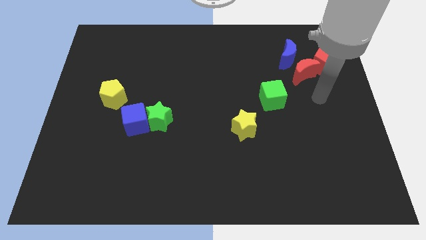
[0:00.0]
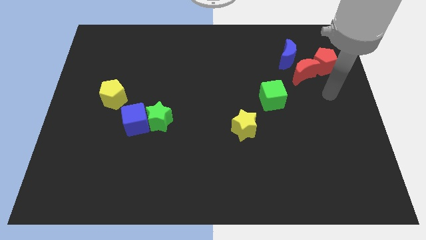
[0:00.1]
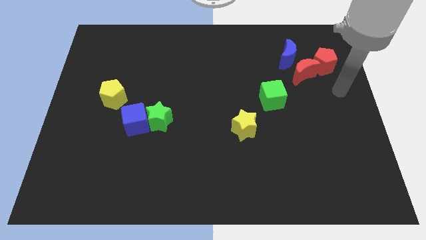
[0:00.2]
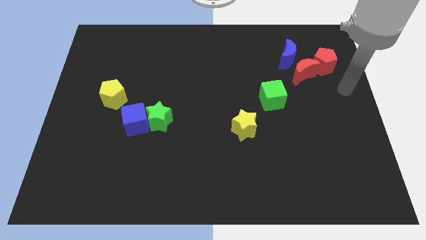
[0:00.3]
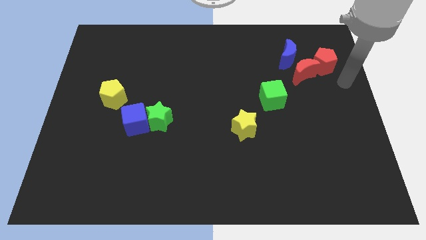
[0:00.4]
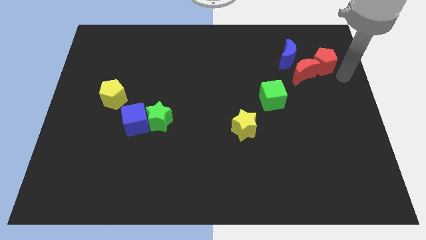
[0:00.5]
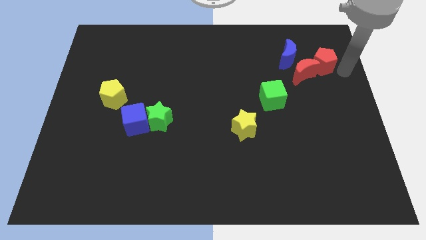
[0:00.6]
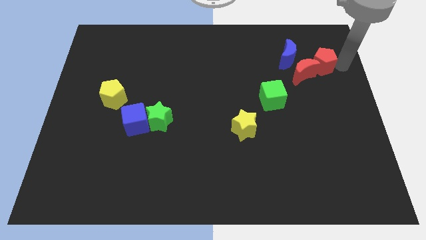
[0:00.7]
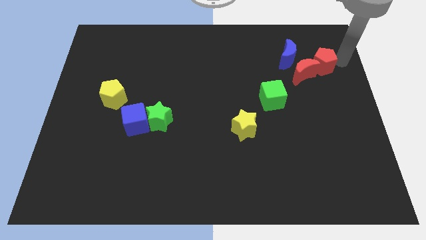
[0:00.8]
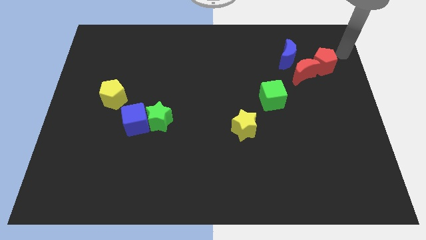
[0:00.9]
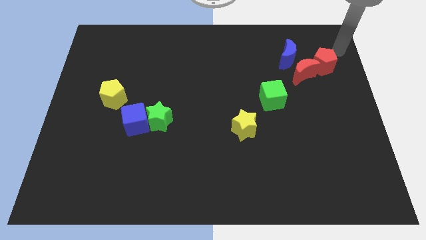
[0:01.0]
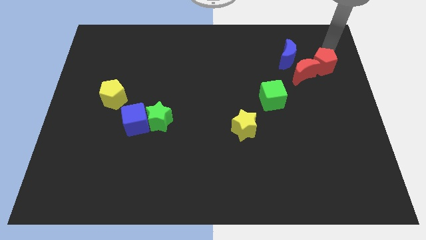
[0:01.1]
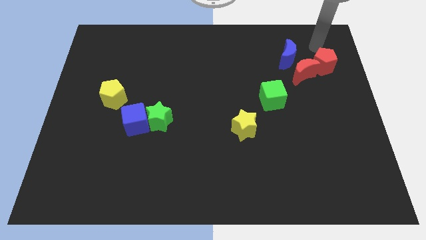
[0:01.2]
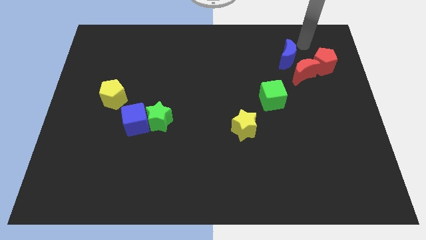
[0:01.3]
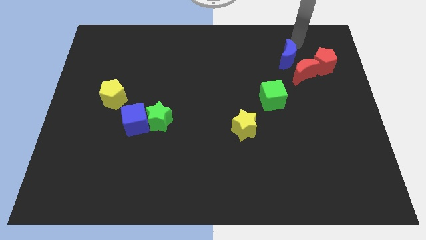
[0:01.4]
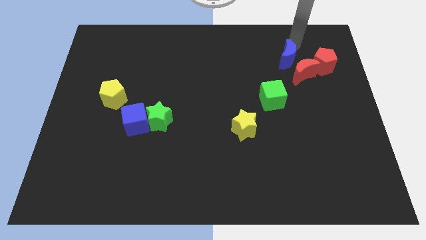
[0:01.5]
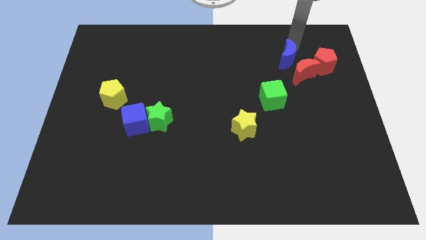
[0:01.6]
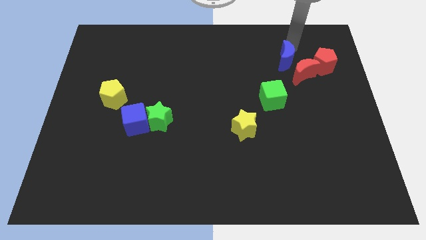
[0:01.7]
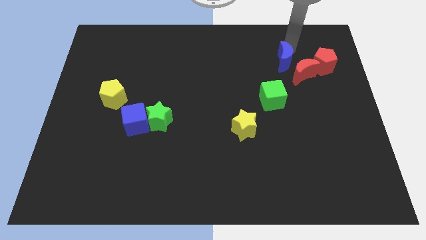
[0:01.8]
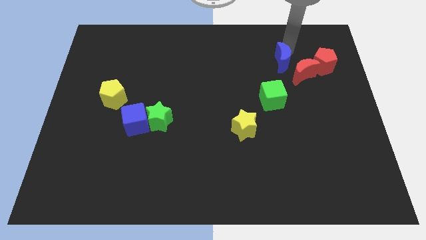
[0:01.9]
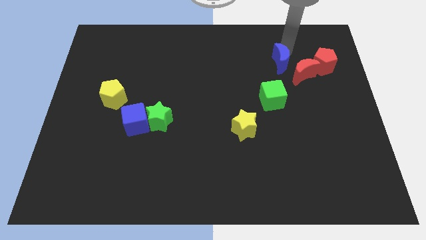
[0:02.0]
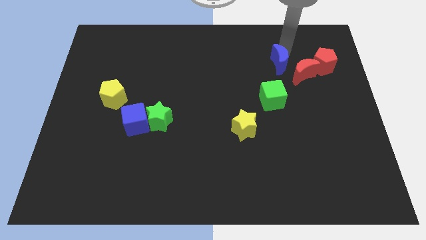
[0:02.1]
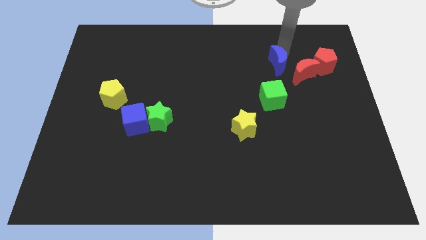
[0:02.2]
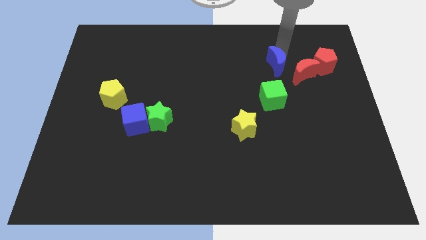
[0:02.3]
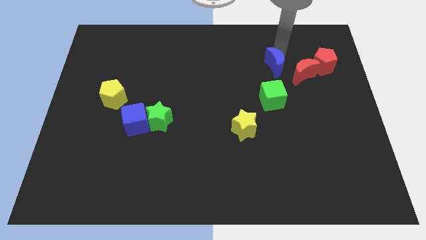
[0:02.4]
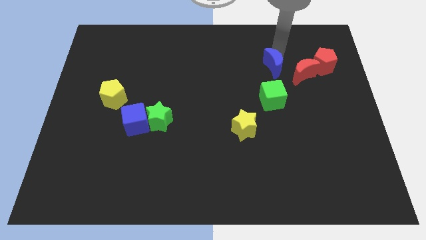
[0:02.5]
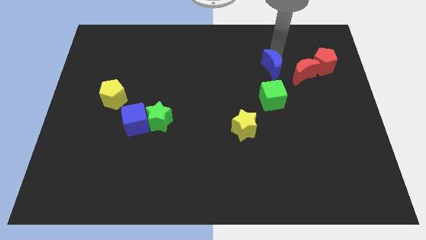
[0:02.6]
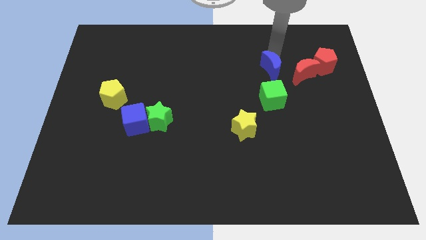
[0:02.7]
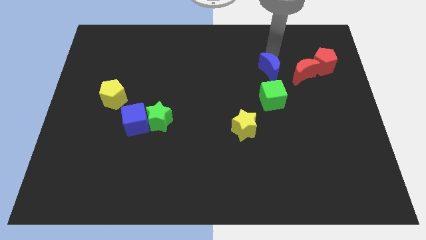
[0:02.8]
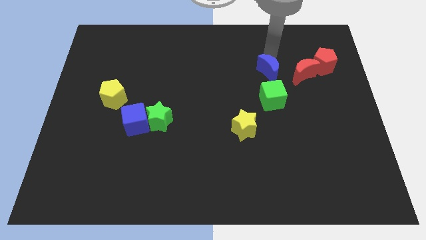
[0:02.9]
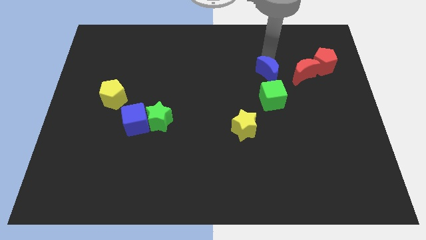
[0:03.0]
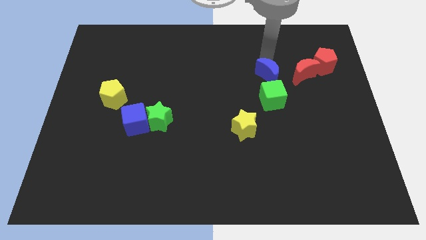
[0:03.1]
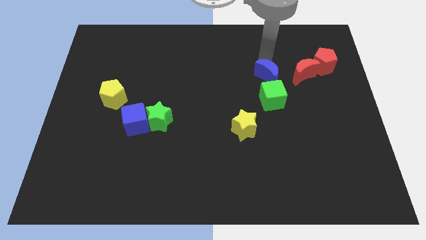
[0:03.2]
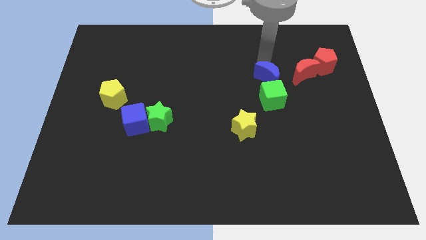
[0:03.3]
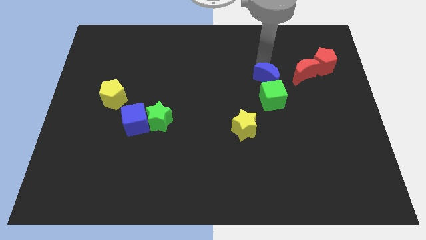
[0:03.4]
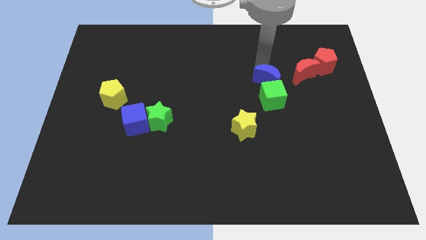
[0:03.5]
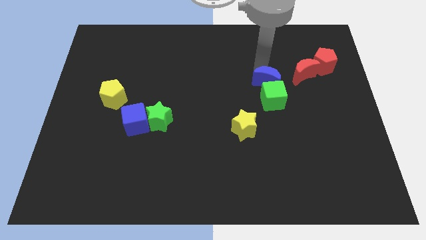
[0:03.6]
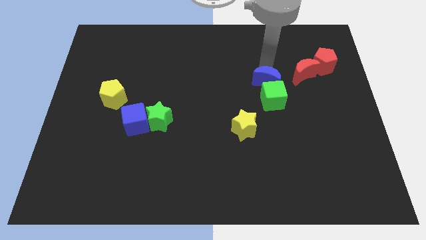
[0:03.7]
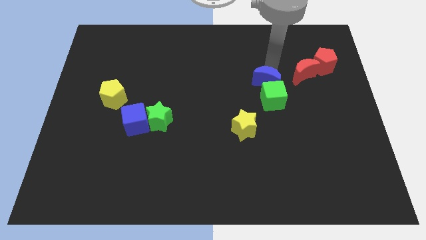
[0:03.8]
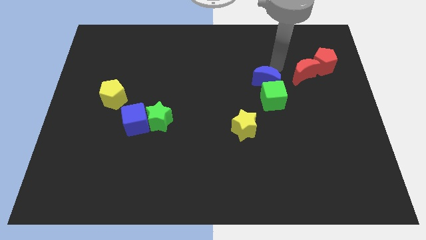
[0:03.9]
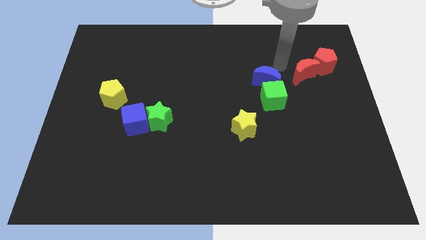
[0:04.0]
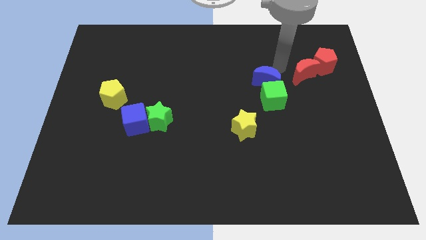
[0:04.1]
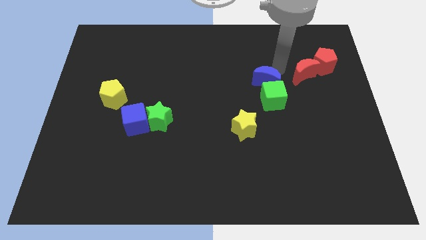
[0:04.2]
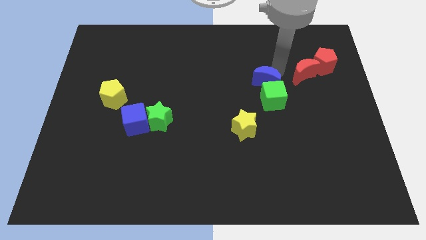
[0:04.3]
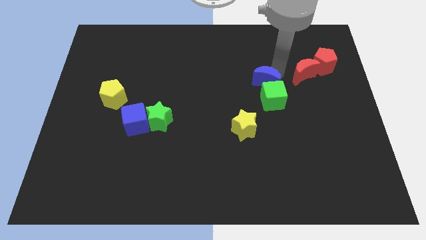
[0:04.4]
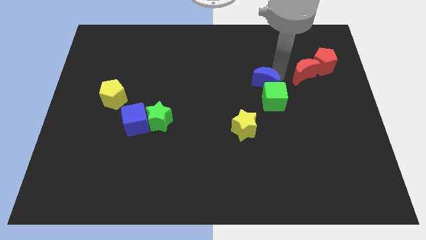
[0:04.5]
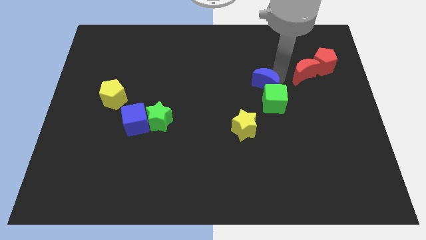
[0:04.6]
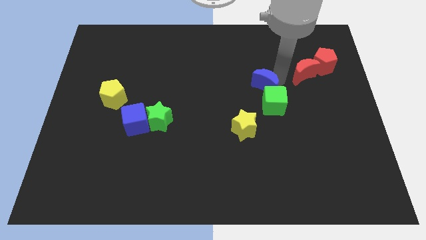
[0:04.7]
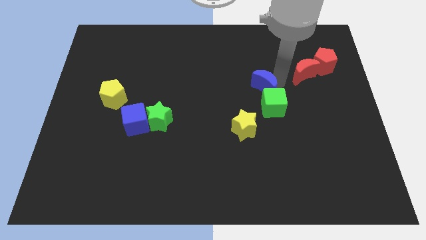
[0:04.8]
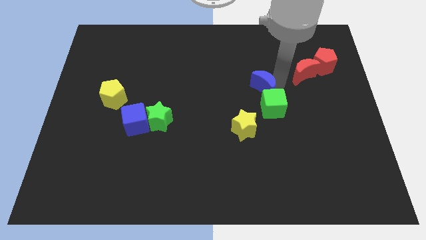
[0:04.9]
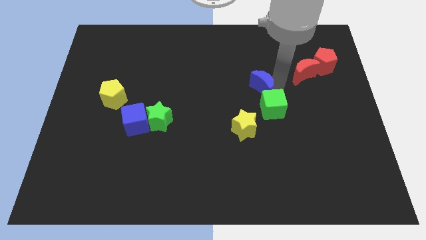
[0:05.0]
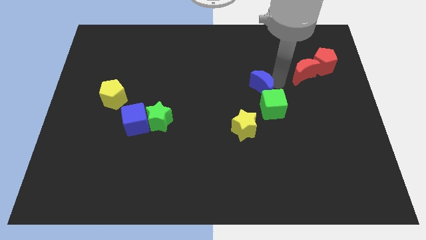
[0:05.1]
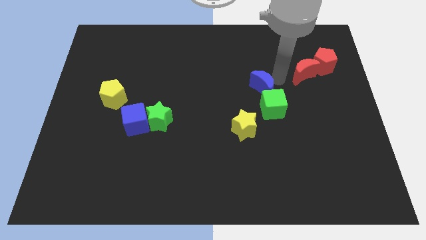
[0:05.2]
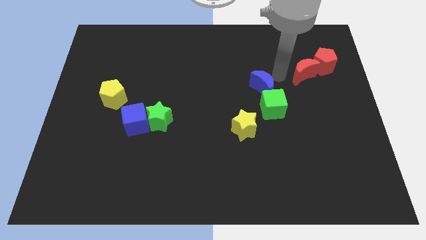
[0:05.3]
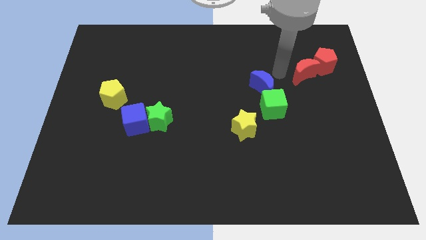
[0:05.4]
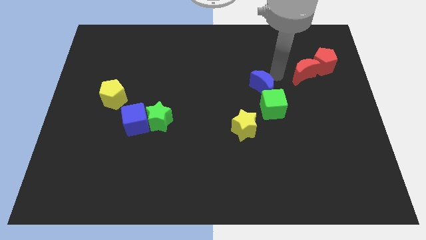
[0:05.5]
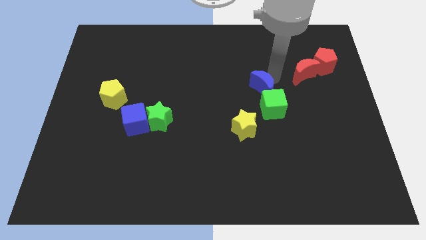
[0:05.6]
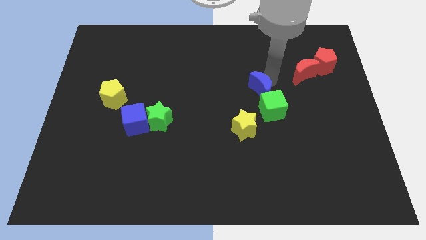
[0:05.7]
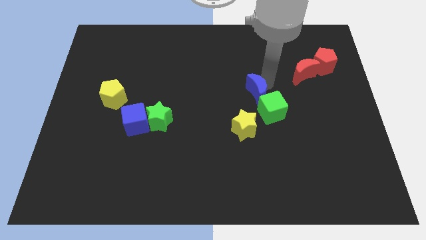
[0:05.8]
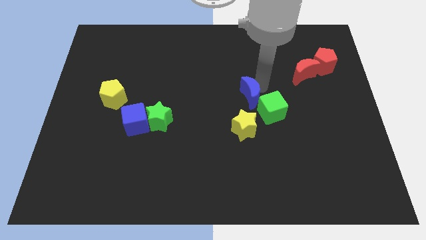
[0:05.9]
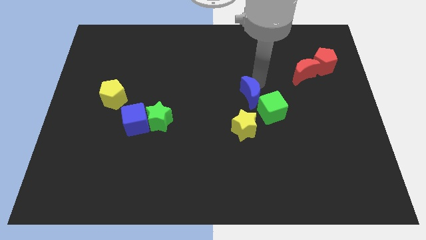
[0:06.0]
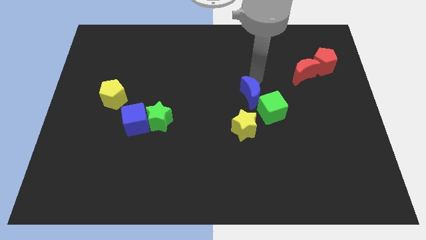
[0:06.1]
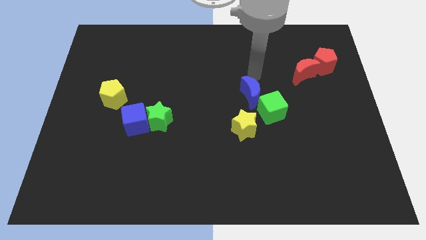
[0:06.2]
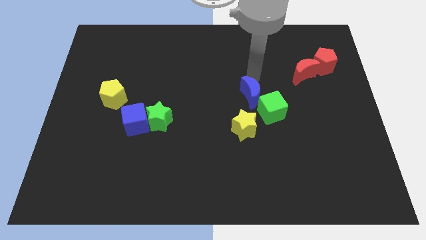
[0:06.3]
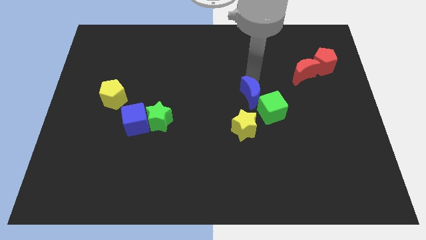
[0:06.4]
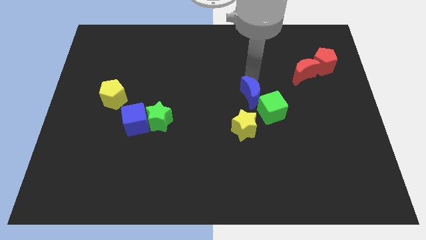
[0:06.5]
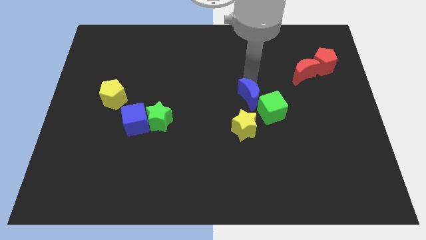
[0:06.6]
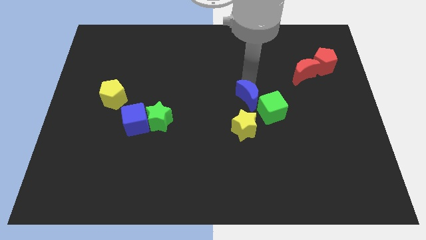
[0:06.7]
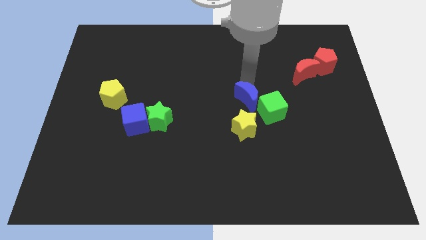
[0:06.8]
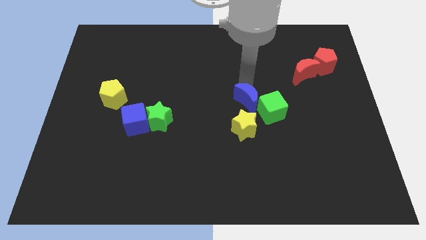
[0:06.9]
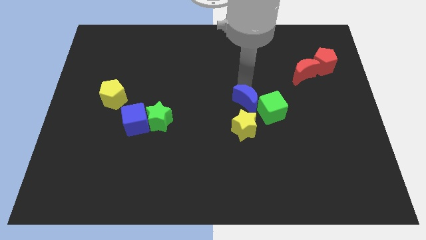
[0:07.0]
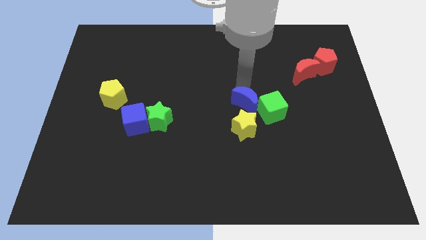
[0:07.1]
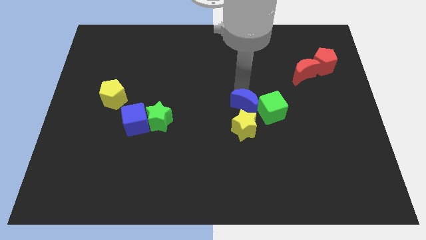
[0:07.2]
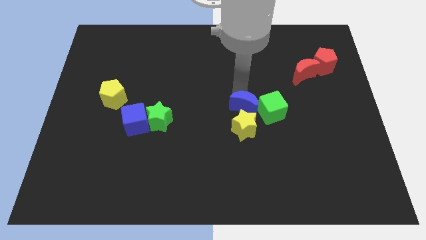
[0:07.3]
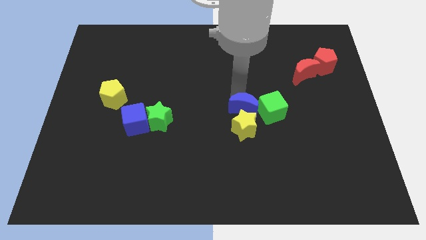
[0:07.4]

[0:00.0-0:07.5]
push the blue moon towards the yellow star

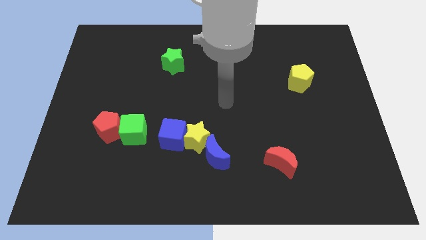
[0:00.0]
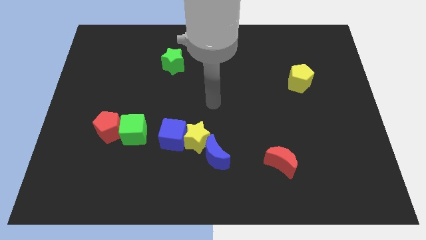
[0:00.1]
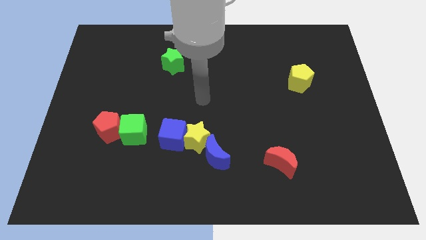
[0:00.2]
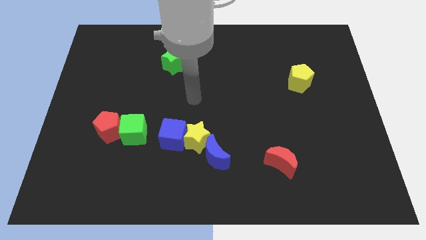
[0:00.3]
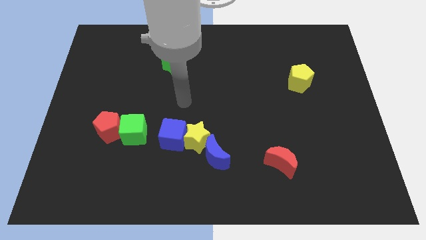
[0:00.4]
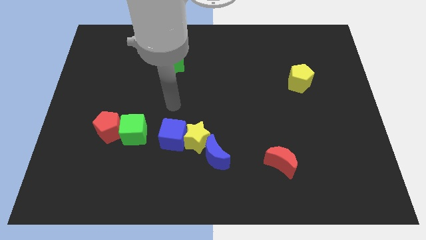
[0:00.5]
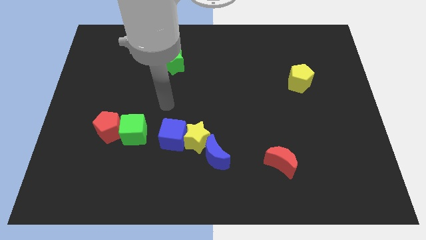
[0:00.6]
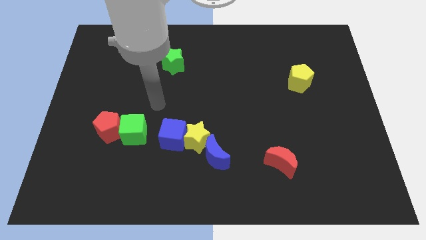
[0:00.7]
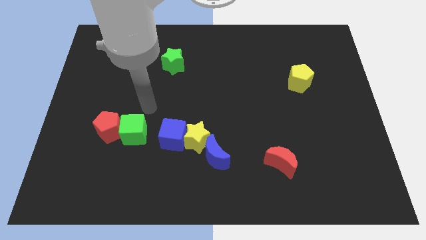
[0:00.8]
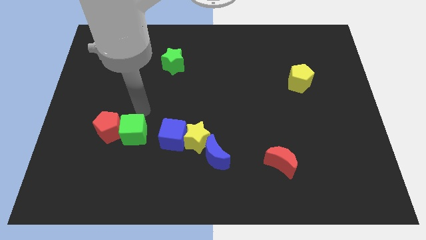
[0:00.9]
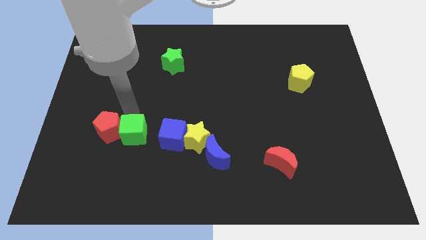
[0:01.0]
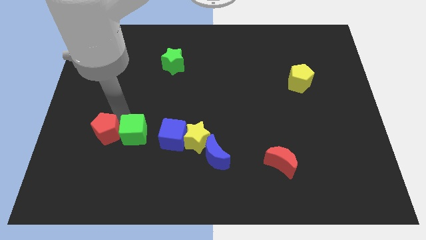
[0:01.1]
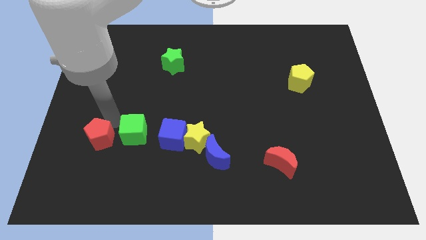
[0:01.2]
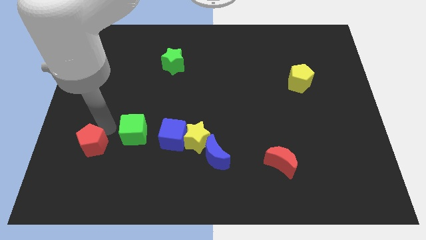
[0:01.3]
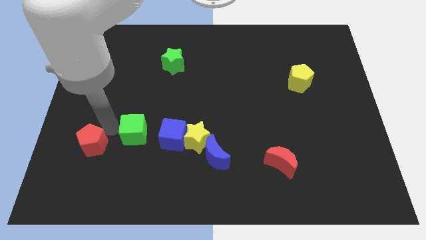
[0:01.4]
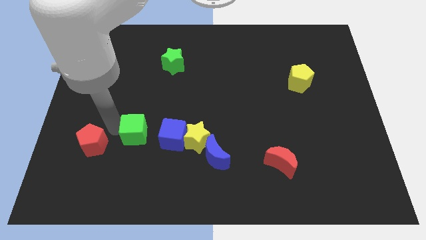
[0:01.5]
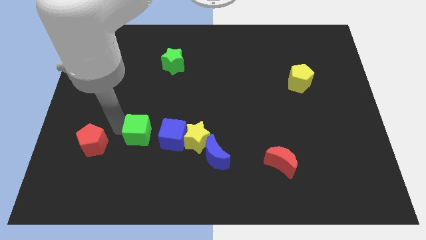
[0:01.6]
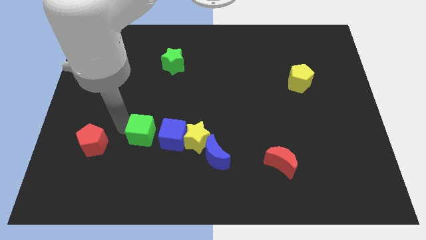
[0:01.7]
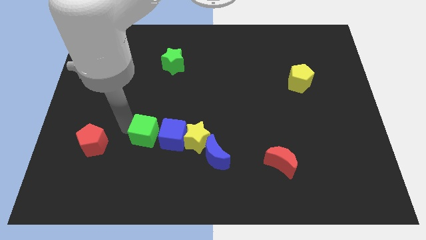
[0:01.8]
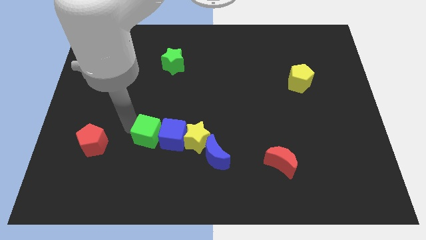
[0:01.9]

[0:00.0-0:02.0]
move the green cube towards the blue cube
